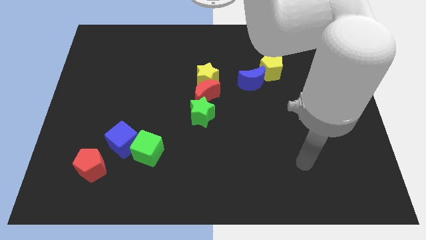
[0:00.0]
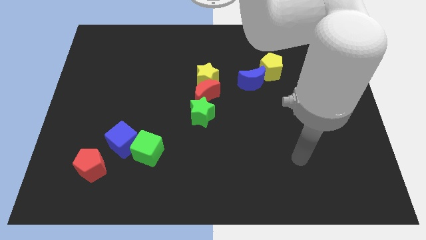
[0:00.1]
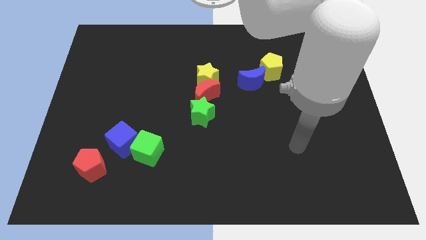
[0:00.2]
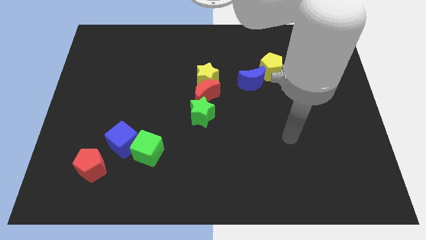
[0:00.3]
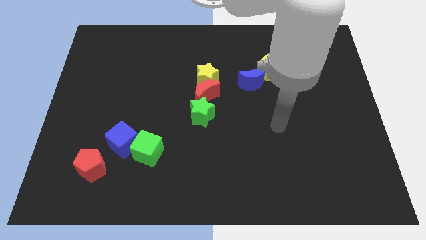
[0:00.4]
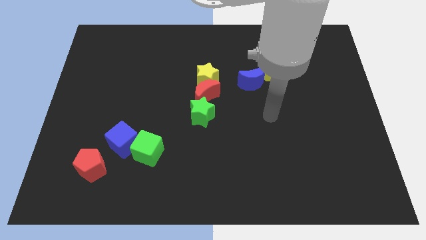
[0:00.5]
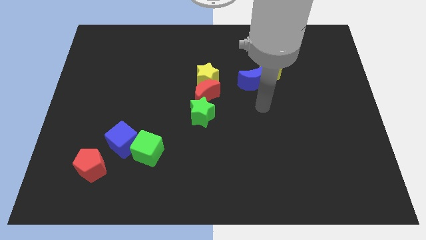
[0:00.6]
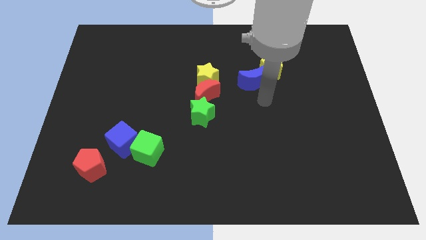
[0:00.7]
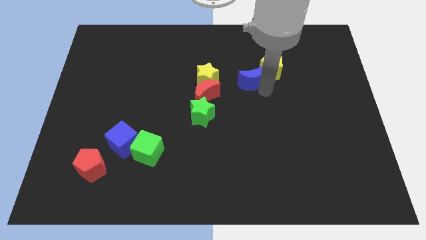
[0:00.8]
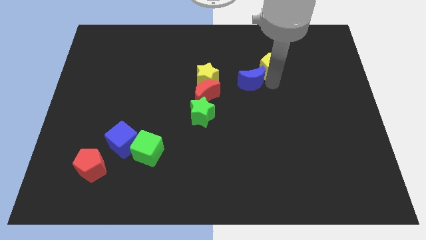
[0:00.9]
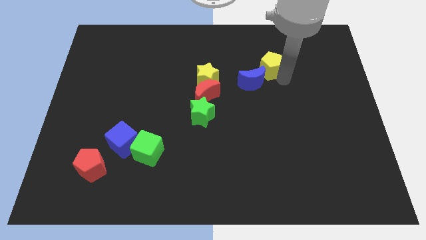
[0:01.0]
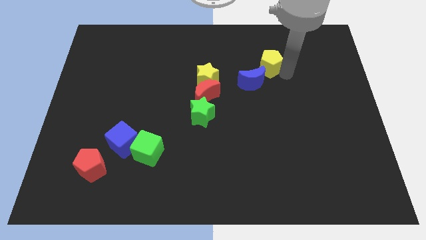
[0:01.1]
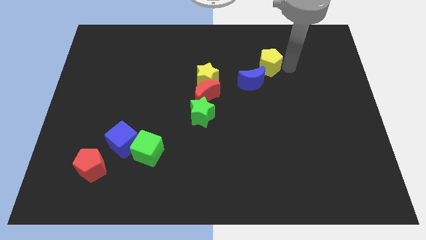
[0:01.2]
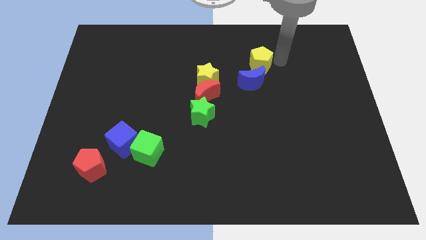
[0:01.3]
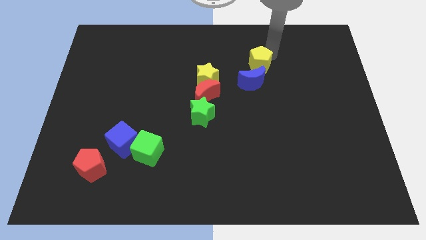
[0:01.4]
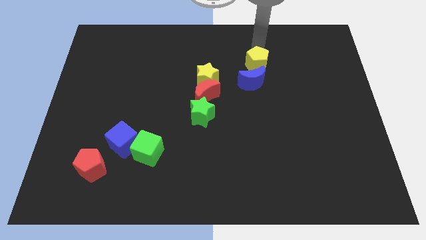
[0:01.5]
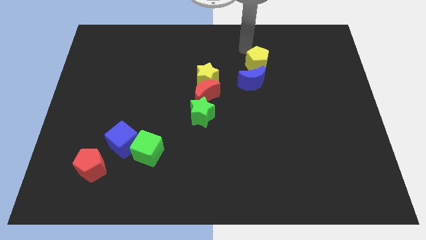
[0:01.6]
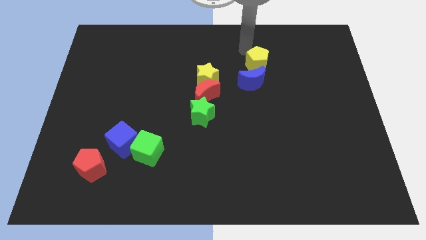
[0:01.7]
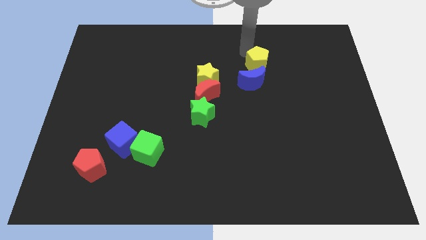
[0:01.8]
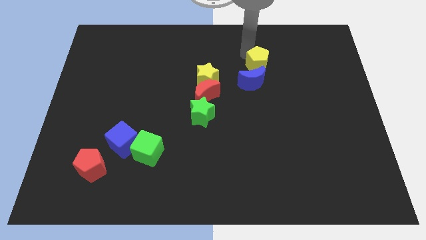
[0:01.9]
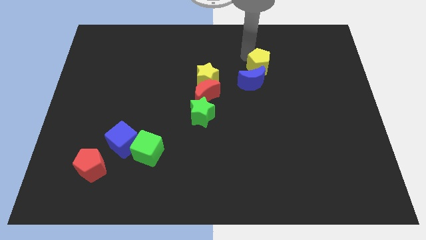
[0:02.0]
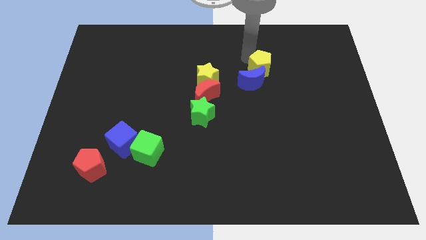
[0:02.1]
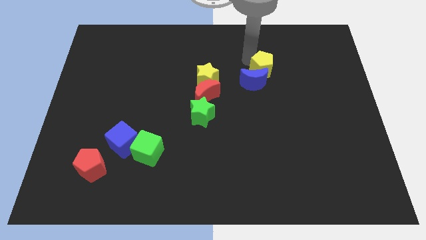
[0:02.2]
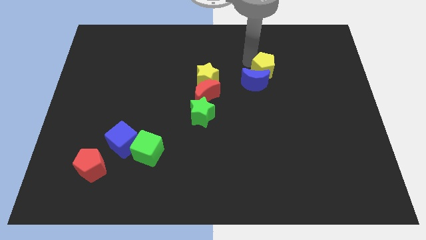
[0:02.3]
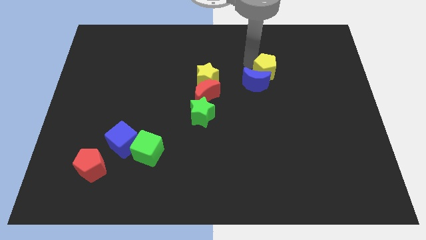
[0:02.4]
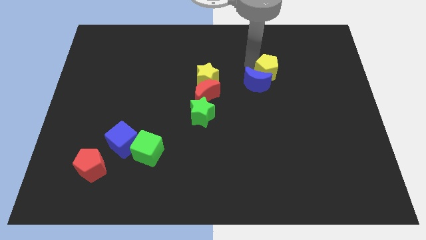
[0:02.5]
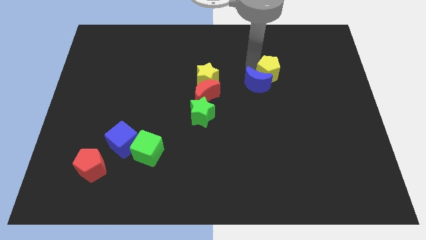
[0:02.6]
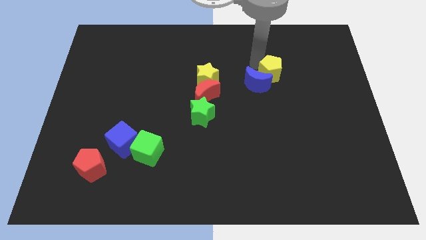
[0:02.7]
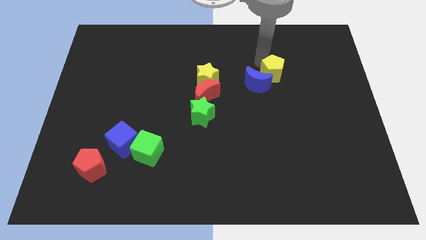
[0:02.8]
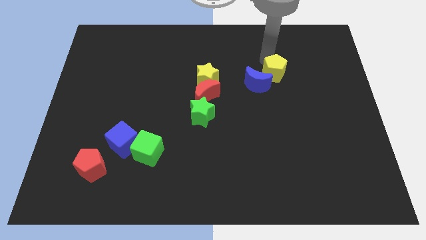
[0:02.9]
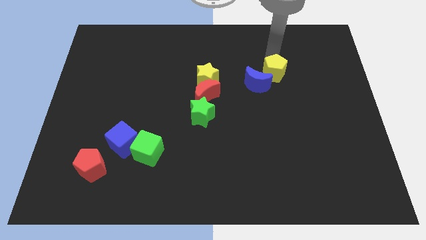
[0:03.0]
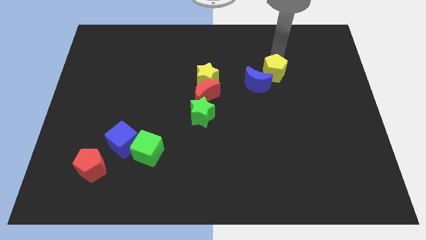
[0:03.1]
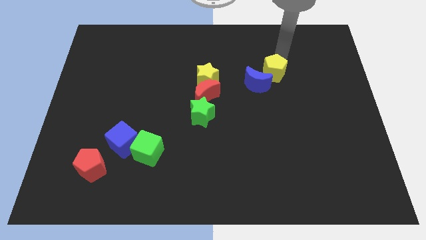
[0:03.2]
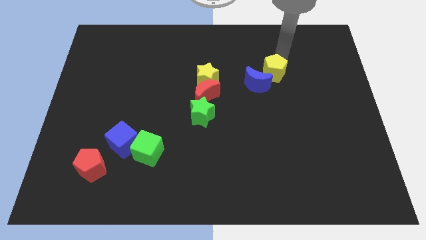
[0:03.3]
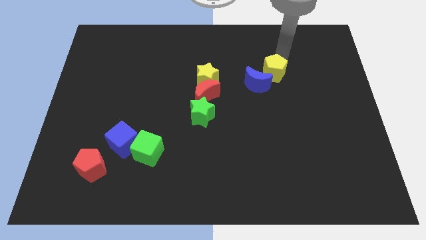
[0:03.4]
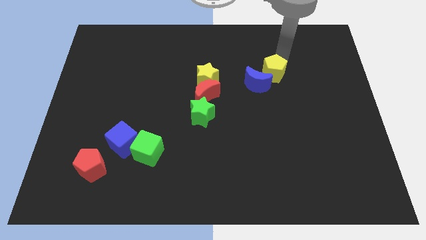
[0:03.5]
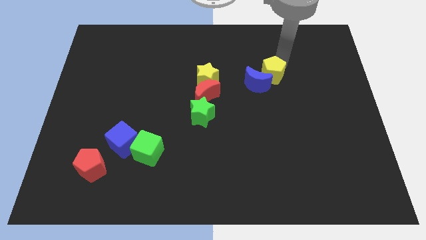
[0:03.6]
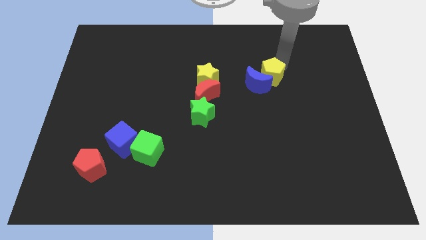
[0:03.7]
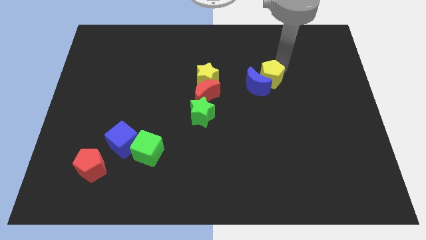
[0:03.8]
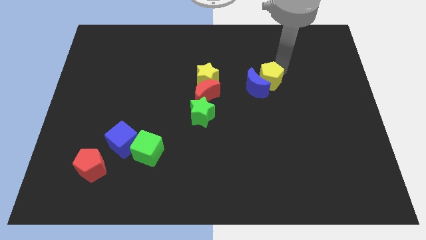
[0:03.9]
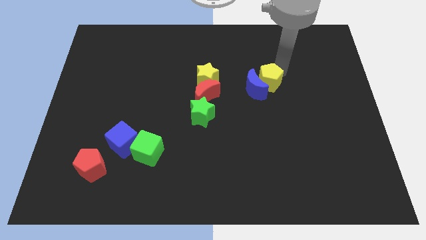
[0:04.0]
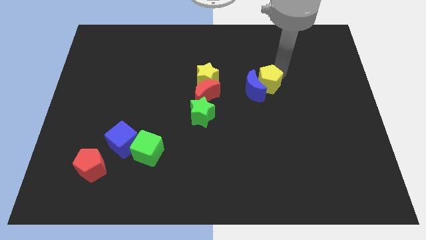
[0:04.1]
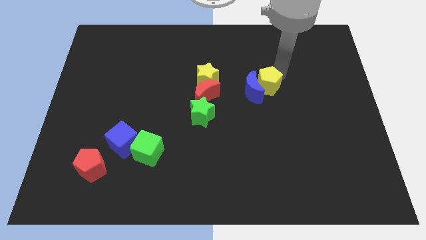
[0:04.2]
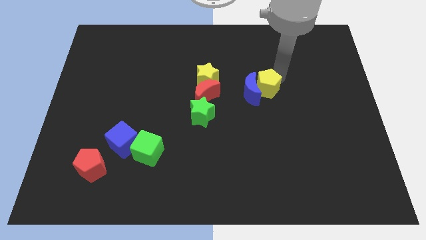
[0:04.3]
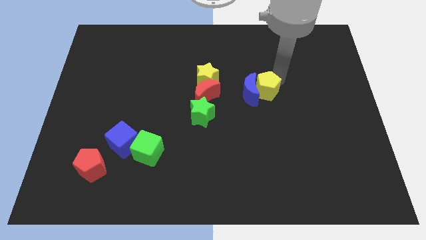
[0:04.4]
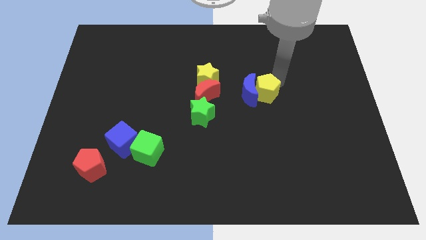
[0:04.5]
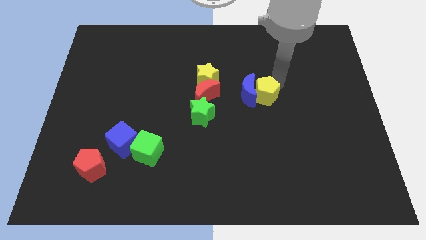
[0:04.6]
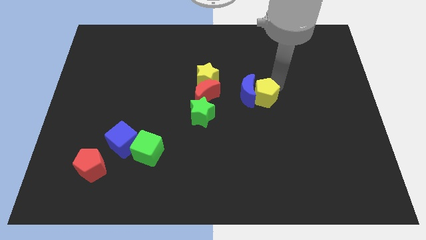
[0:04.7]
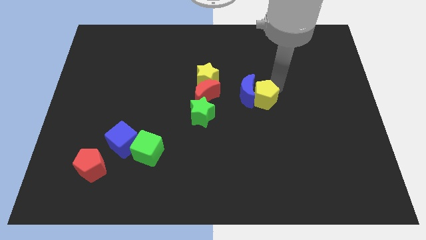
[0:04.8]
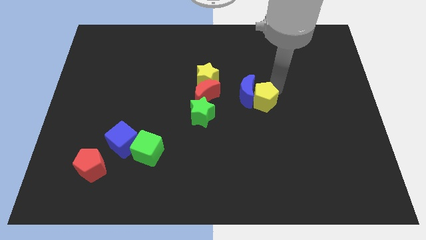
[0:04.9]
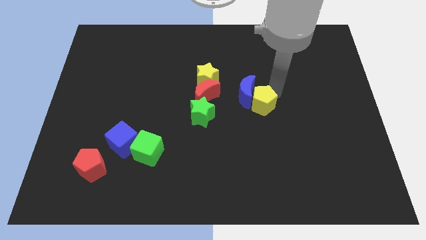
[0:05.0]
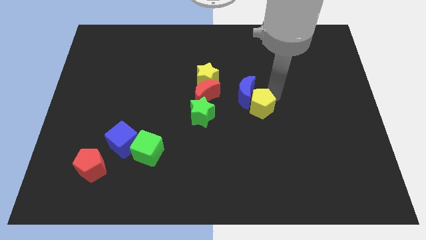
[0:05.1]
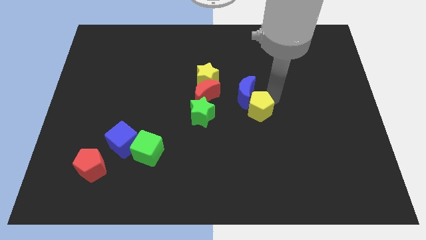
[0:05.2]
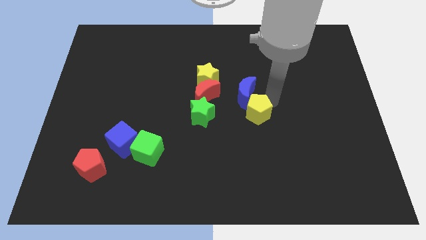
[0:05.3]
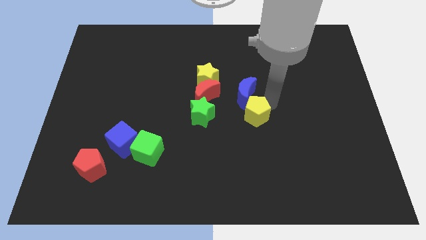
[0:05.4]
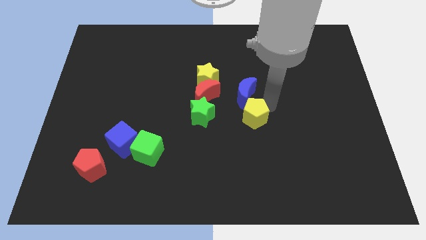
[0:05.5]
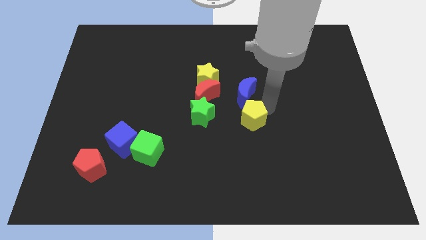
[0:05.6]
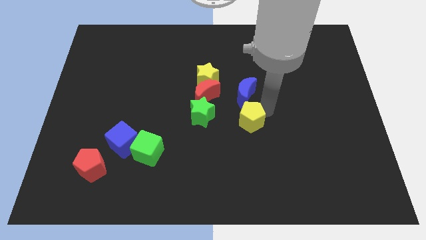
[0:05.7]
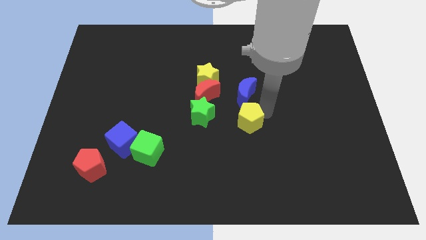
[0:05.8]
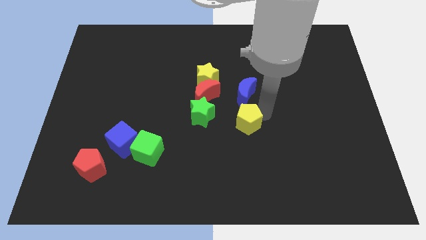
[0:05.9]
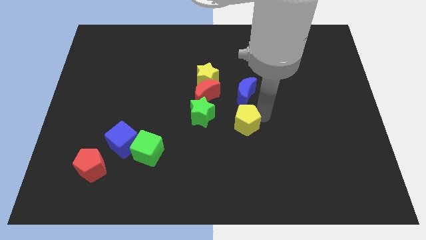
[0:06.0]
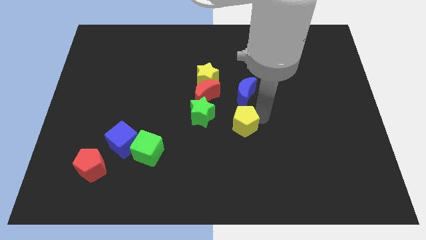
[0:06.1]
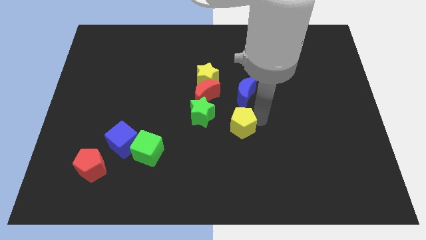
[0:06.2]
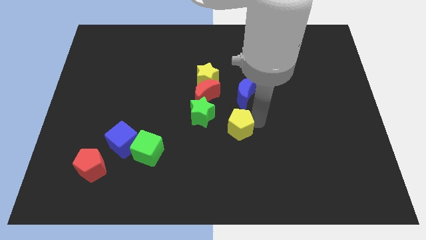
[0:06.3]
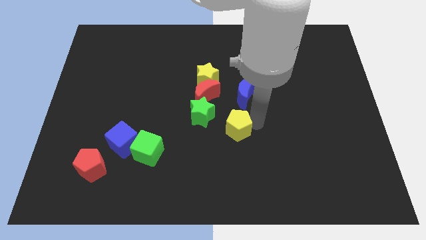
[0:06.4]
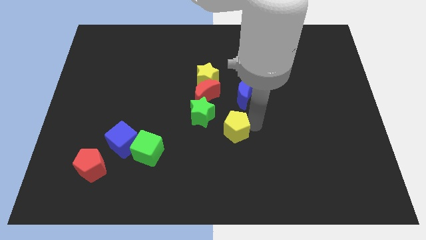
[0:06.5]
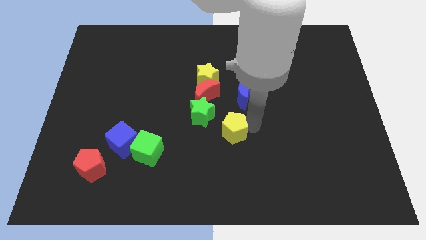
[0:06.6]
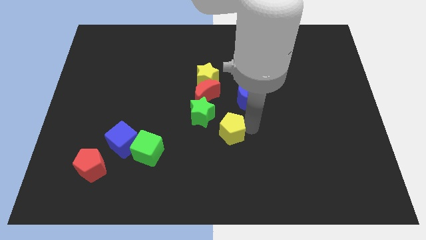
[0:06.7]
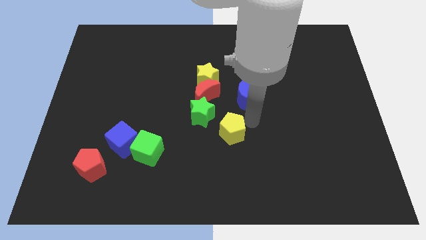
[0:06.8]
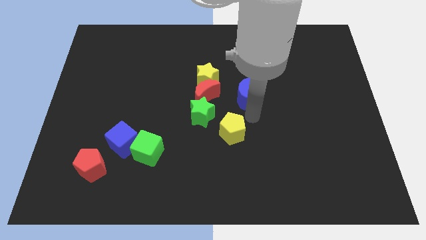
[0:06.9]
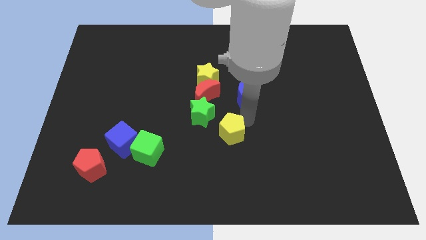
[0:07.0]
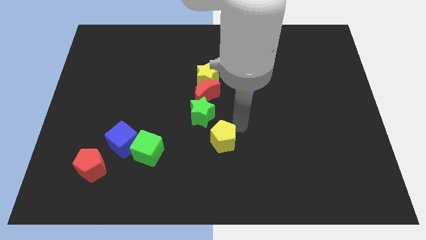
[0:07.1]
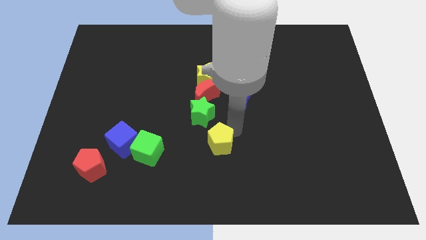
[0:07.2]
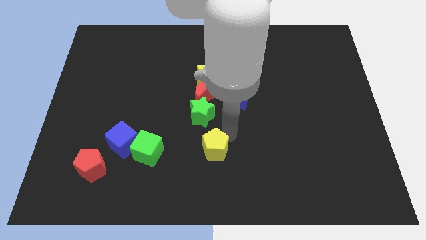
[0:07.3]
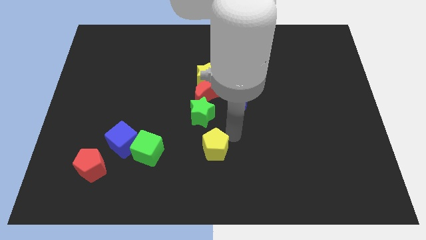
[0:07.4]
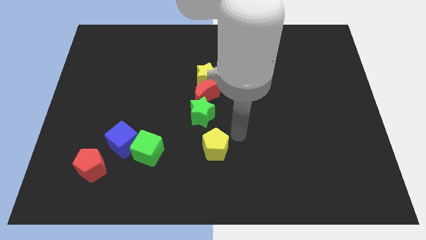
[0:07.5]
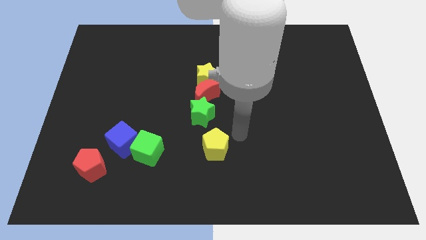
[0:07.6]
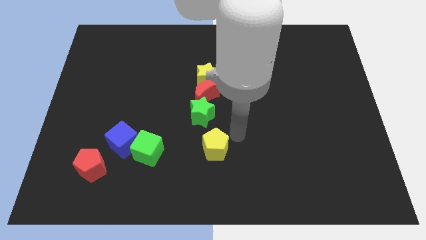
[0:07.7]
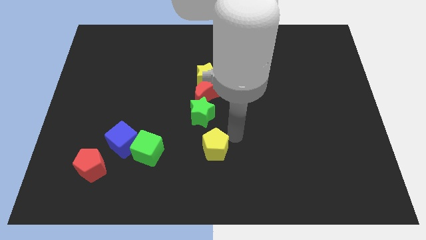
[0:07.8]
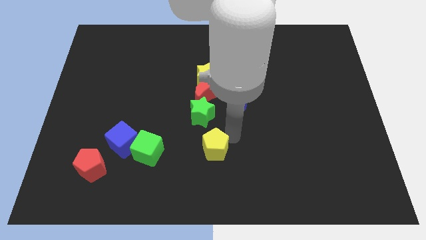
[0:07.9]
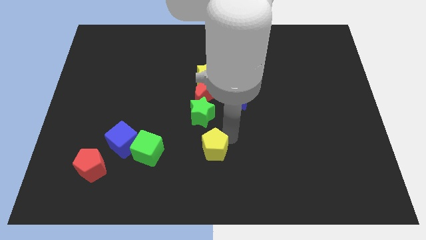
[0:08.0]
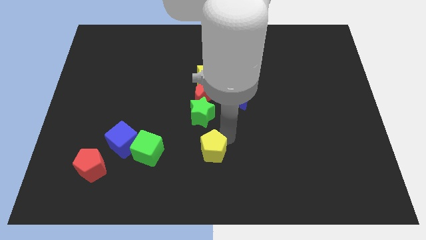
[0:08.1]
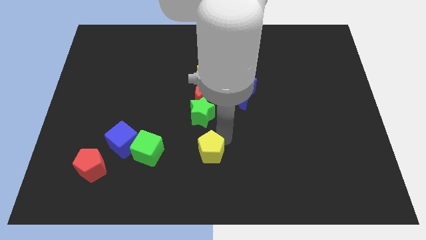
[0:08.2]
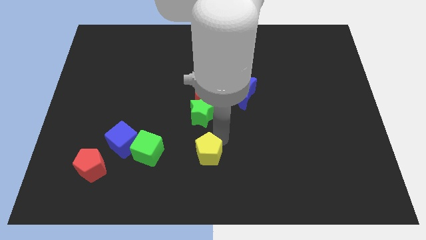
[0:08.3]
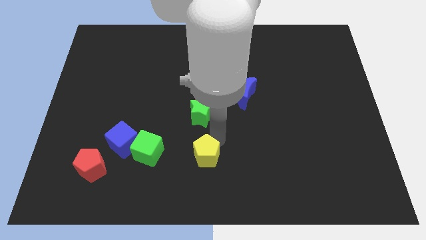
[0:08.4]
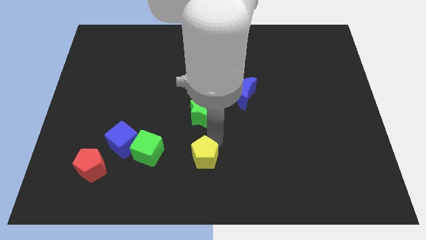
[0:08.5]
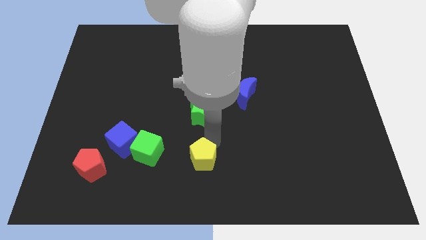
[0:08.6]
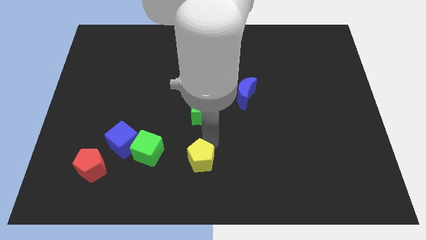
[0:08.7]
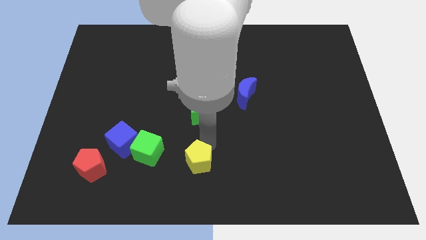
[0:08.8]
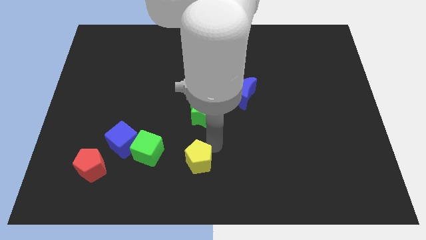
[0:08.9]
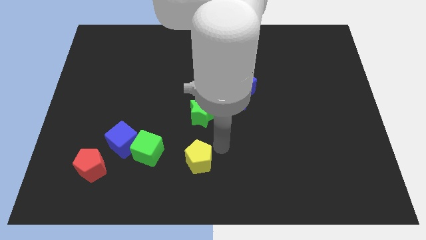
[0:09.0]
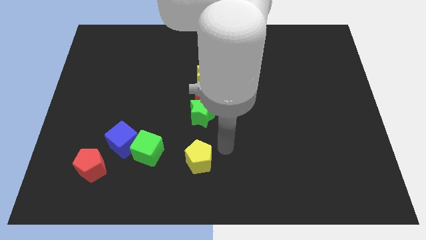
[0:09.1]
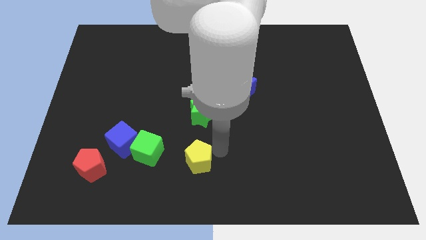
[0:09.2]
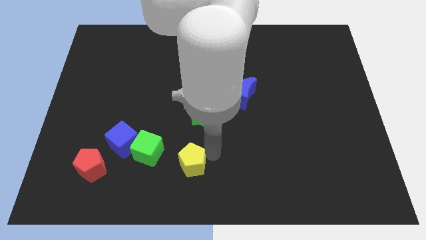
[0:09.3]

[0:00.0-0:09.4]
slide the yellow pentagon diagonally down and to the right of the green cube
